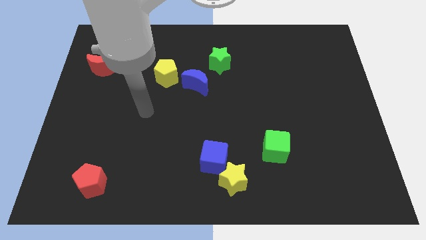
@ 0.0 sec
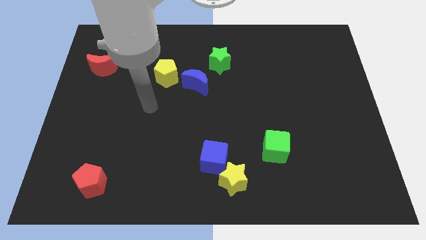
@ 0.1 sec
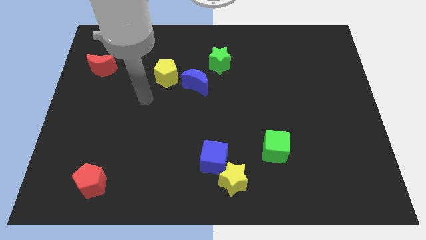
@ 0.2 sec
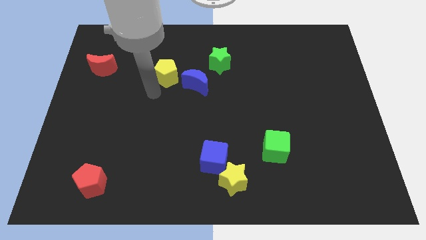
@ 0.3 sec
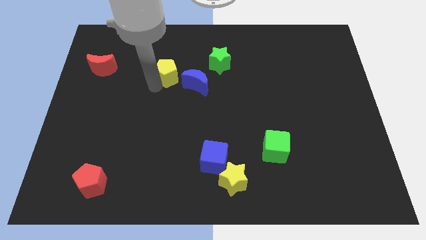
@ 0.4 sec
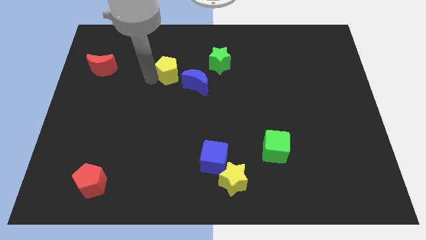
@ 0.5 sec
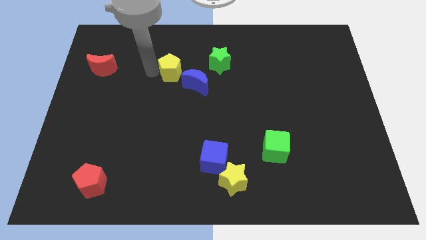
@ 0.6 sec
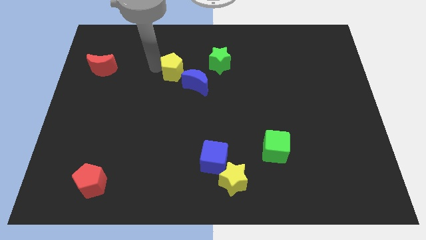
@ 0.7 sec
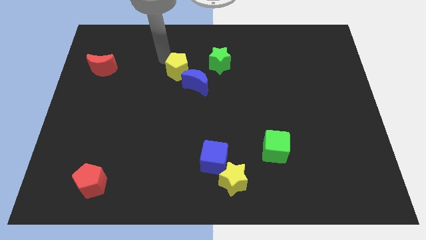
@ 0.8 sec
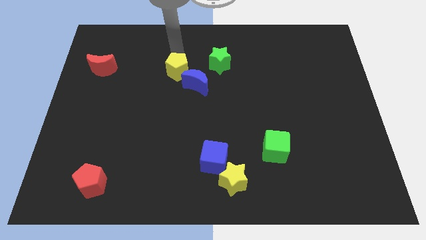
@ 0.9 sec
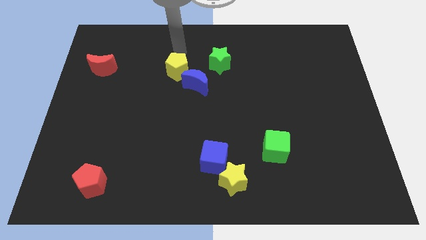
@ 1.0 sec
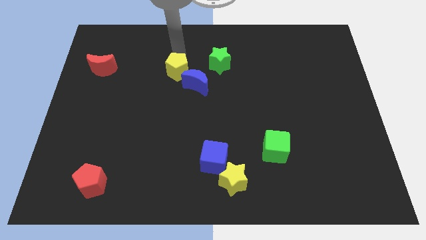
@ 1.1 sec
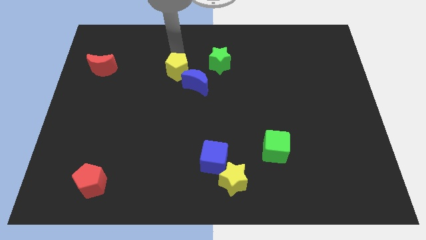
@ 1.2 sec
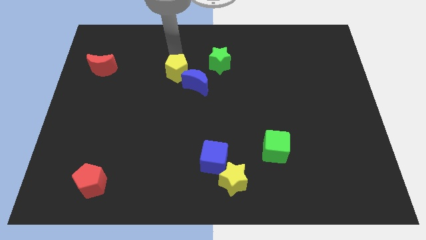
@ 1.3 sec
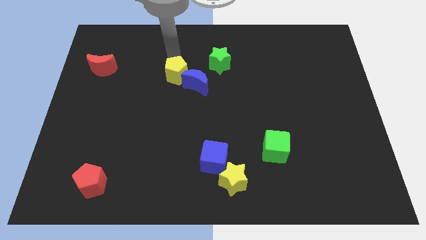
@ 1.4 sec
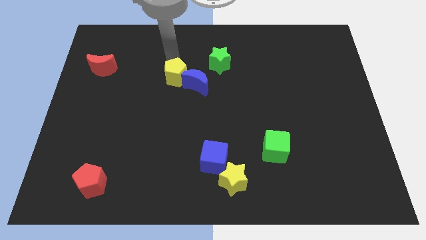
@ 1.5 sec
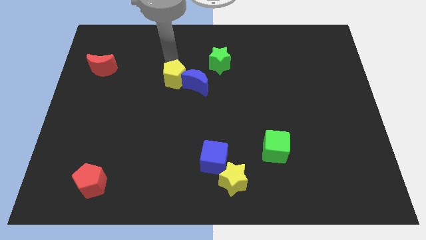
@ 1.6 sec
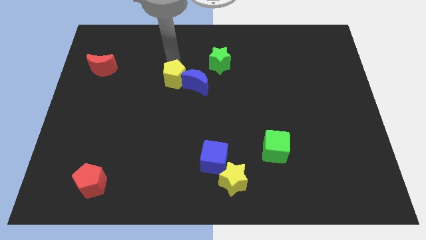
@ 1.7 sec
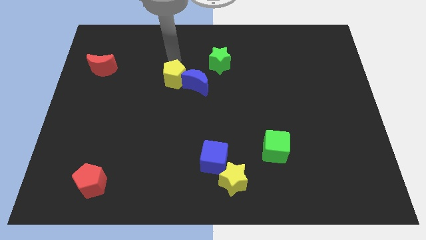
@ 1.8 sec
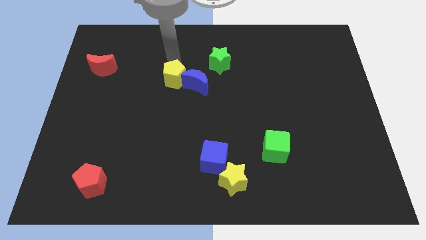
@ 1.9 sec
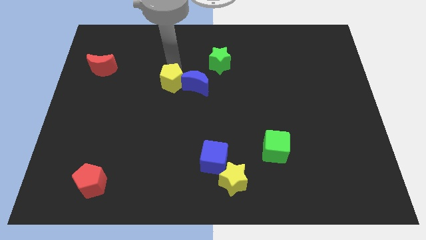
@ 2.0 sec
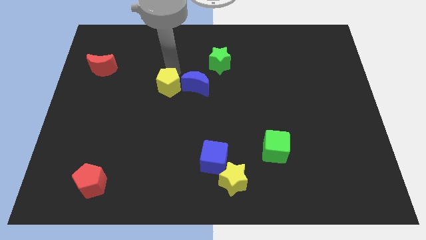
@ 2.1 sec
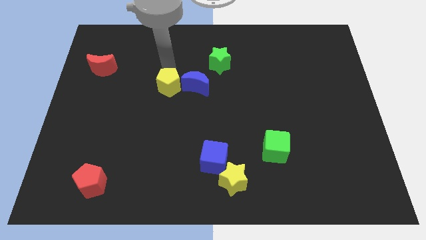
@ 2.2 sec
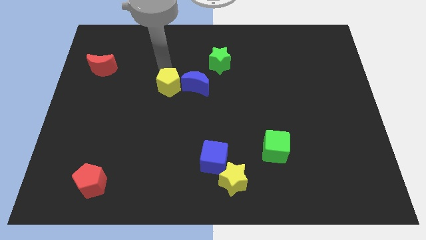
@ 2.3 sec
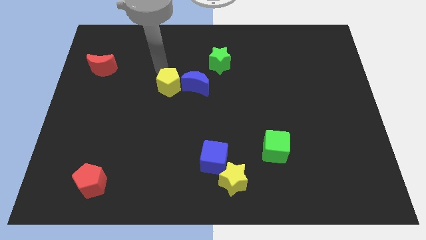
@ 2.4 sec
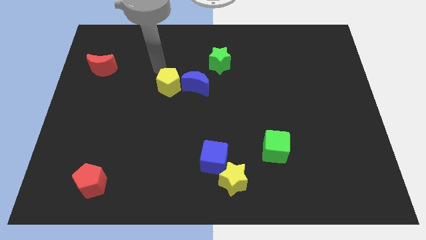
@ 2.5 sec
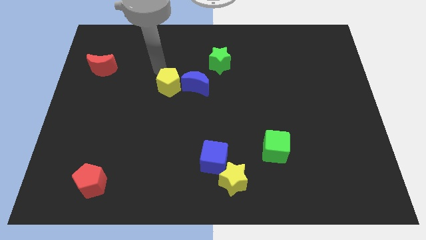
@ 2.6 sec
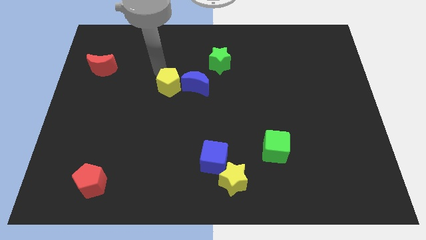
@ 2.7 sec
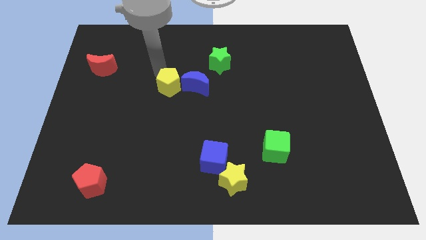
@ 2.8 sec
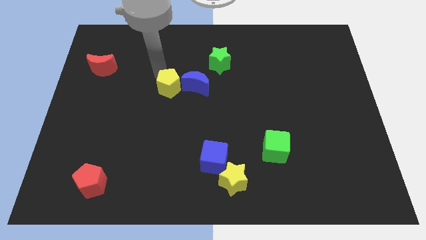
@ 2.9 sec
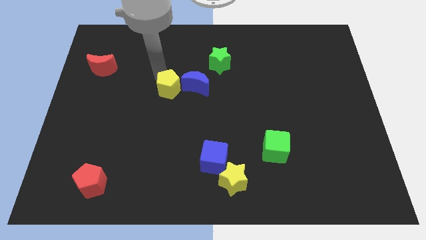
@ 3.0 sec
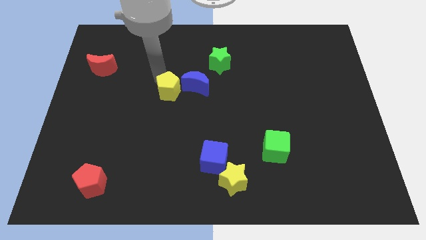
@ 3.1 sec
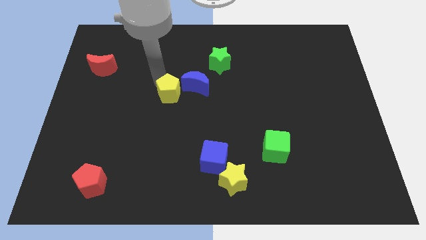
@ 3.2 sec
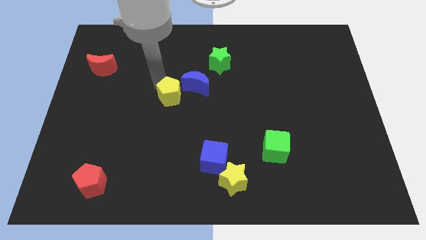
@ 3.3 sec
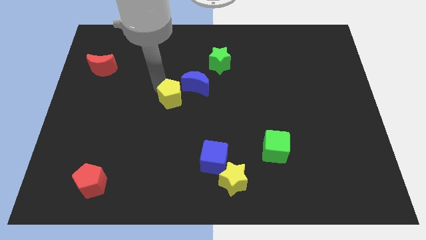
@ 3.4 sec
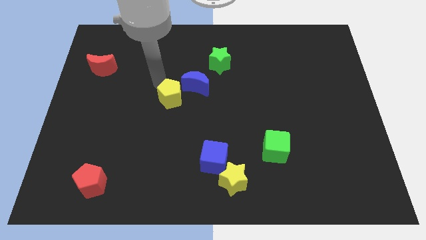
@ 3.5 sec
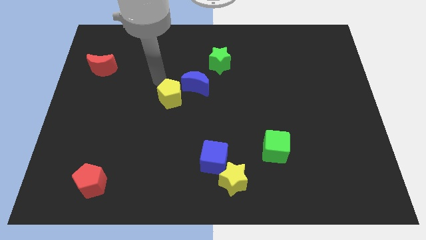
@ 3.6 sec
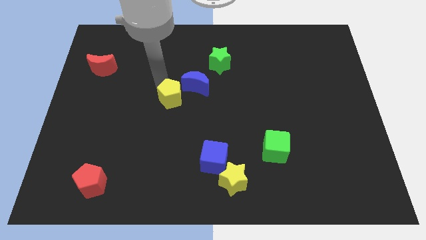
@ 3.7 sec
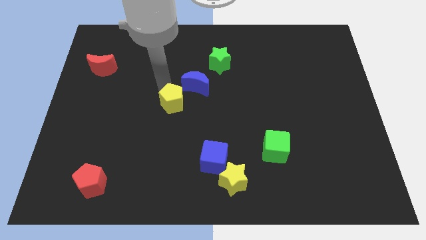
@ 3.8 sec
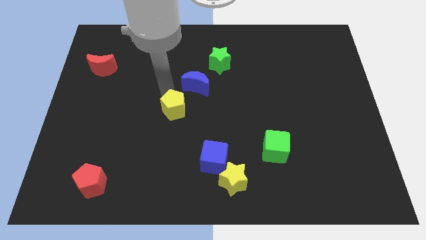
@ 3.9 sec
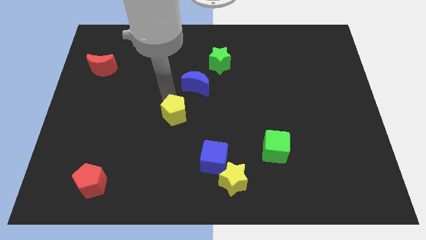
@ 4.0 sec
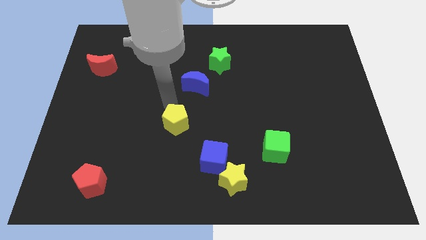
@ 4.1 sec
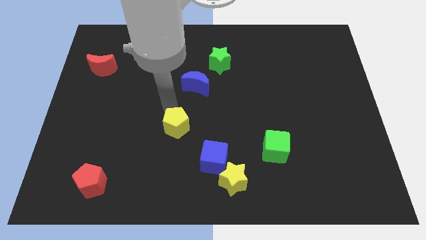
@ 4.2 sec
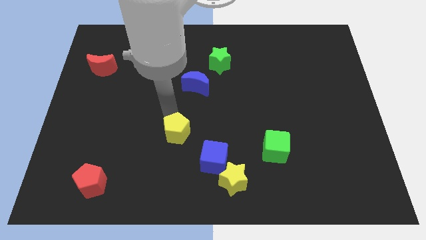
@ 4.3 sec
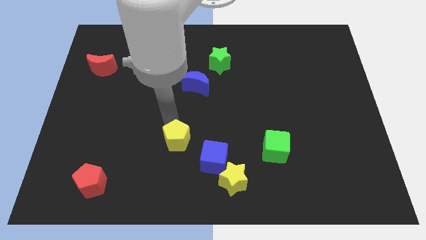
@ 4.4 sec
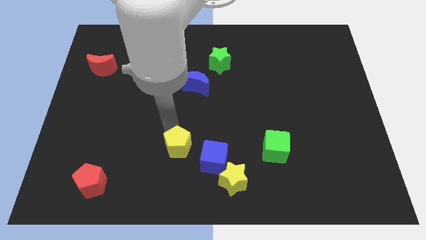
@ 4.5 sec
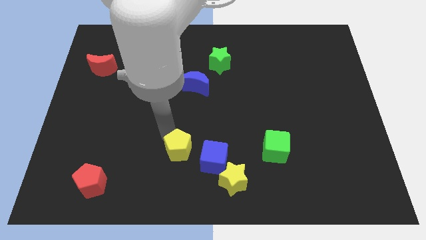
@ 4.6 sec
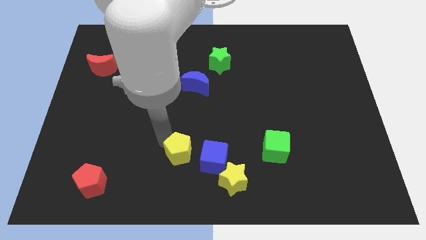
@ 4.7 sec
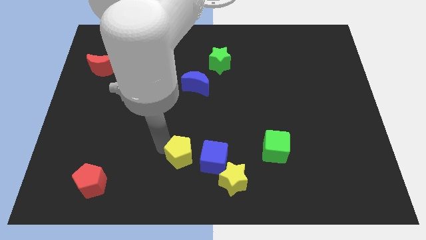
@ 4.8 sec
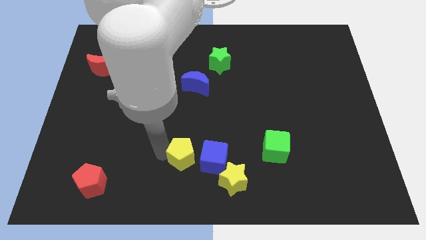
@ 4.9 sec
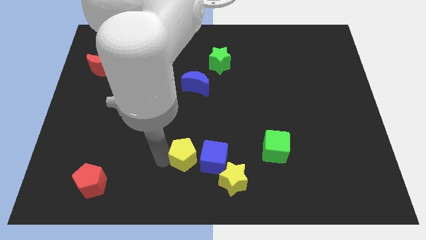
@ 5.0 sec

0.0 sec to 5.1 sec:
push the yellow pentagon towards the blue cube

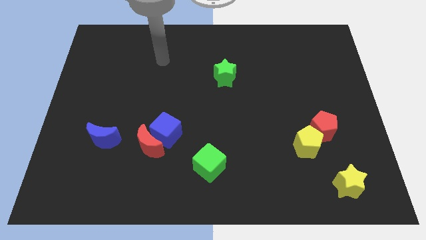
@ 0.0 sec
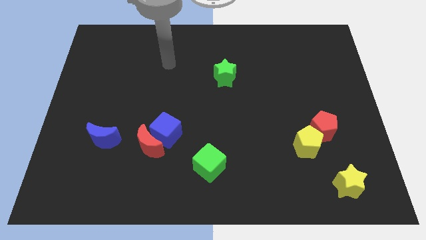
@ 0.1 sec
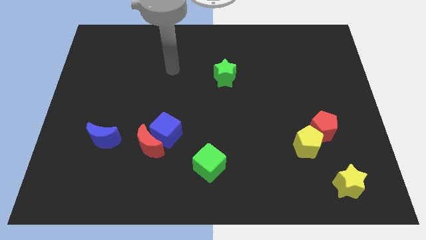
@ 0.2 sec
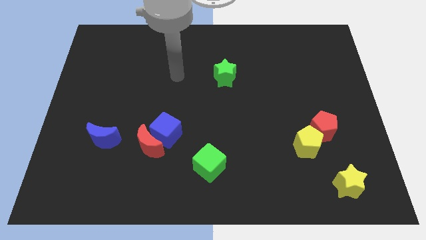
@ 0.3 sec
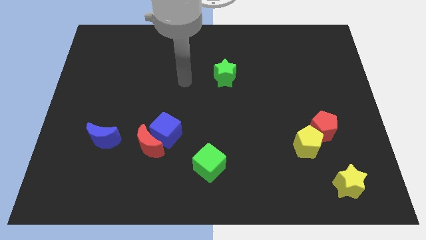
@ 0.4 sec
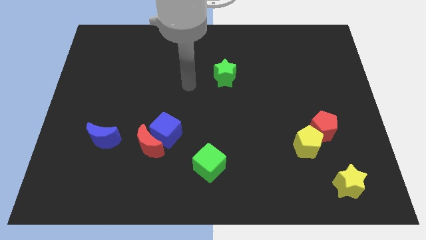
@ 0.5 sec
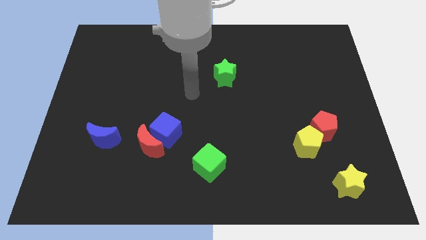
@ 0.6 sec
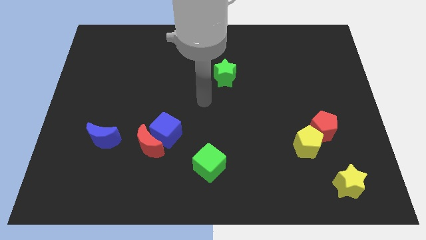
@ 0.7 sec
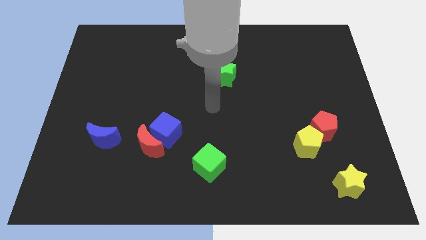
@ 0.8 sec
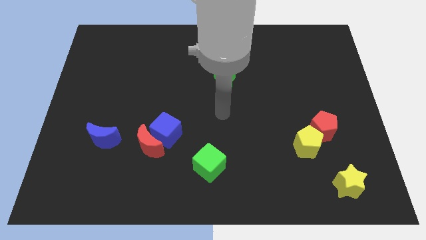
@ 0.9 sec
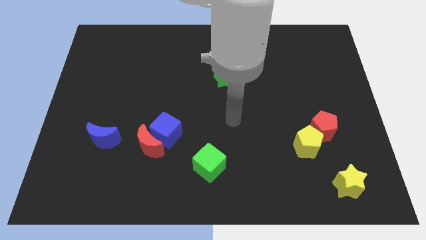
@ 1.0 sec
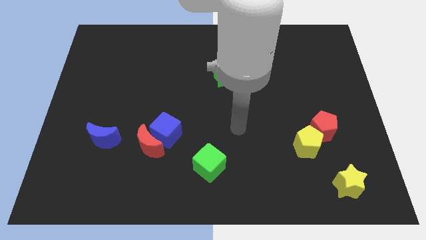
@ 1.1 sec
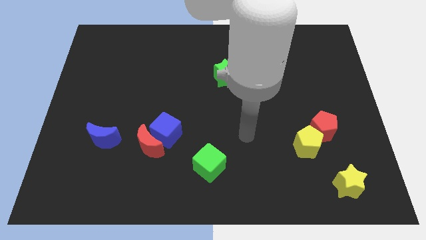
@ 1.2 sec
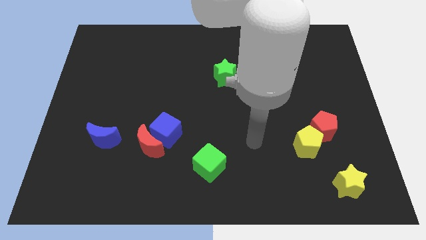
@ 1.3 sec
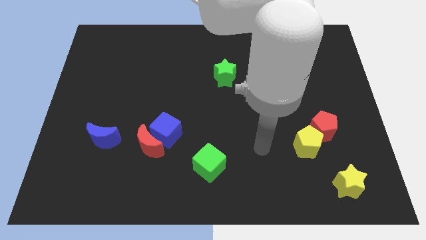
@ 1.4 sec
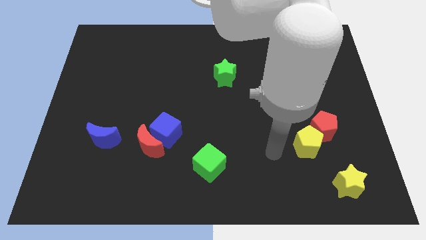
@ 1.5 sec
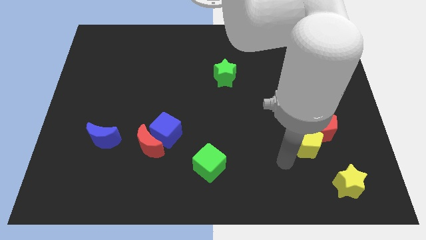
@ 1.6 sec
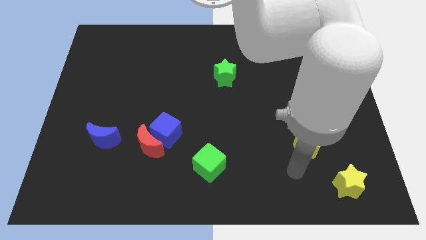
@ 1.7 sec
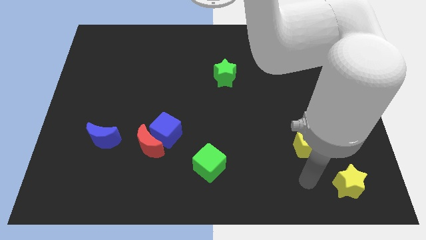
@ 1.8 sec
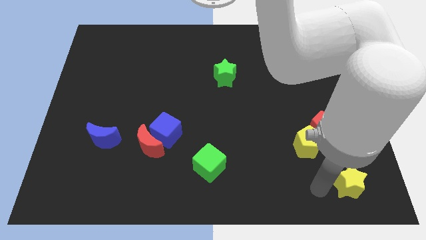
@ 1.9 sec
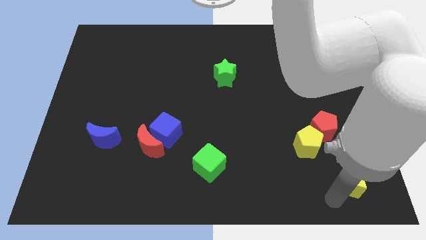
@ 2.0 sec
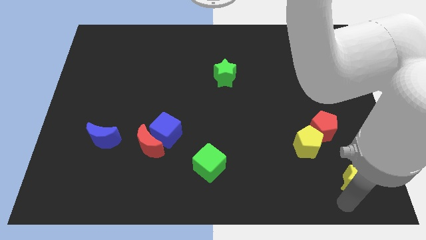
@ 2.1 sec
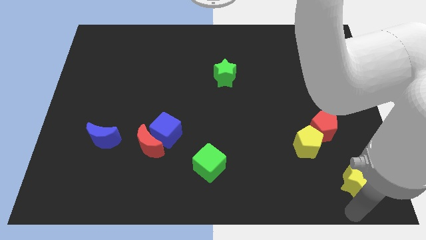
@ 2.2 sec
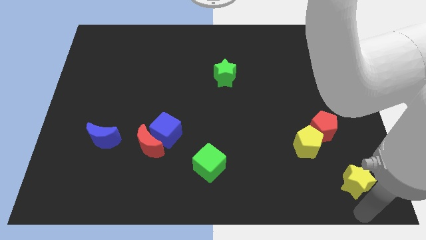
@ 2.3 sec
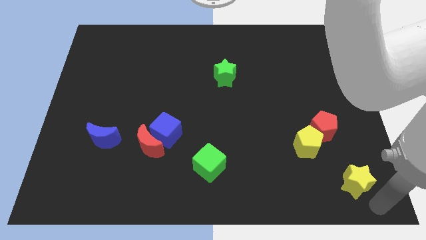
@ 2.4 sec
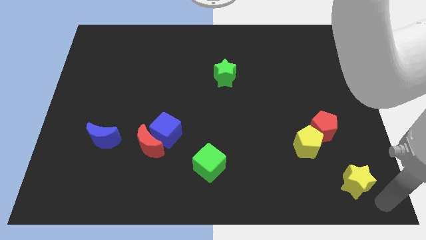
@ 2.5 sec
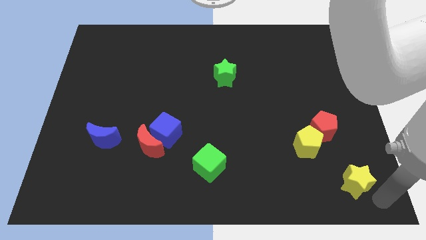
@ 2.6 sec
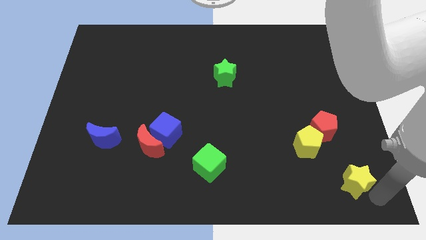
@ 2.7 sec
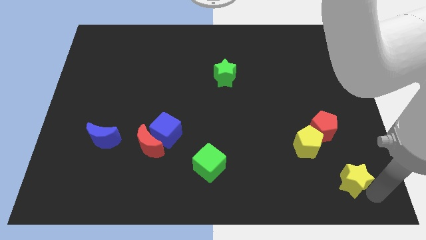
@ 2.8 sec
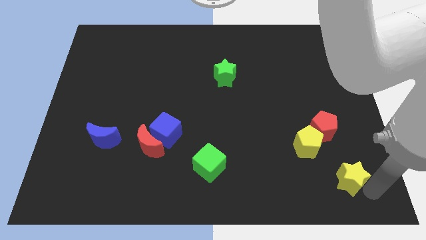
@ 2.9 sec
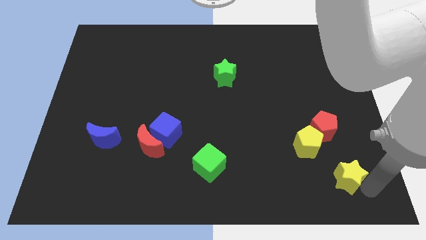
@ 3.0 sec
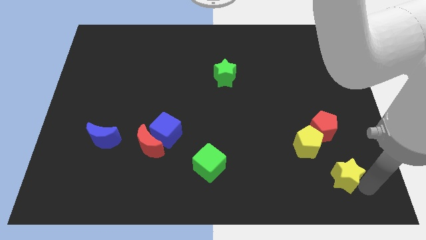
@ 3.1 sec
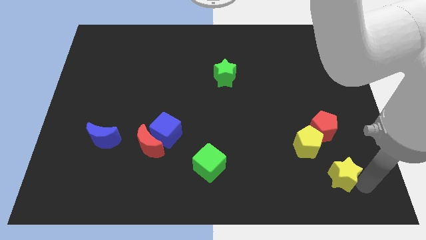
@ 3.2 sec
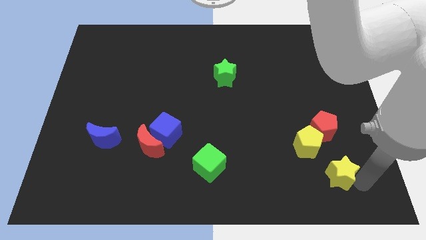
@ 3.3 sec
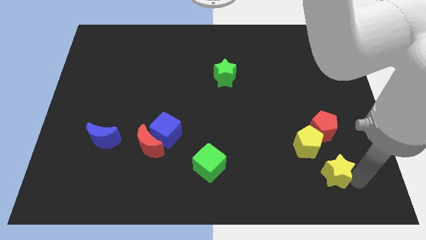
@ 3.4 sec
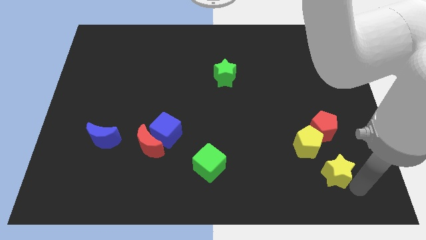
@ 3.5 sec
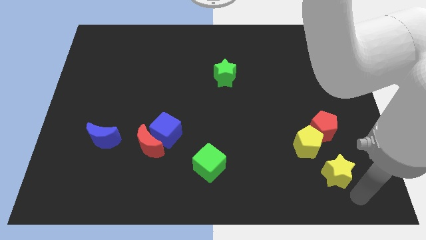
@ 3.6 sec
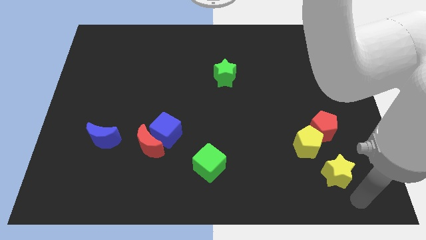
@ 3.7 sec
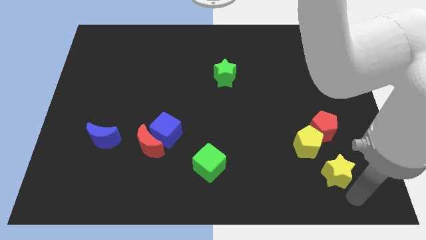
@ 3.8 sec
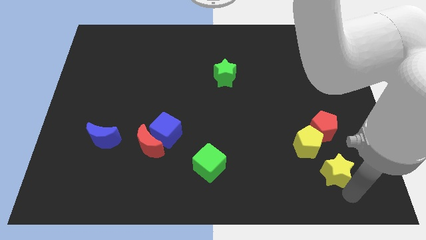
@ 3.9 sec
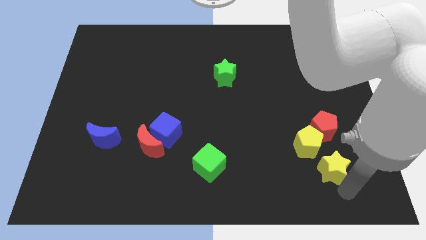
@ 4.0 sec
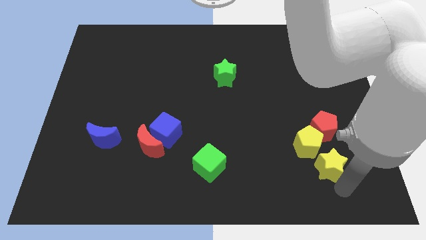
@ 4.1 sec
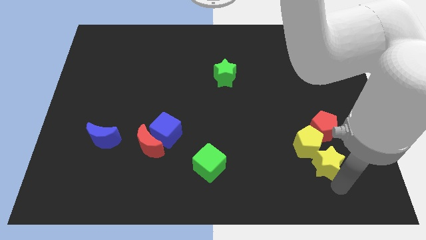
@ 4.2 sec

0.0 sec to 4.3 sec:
slide the yellow star towards the yellow pentagon
